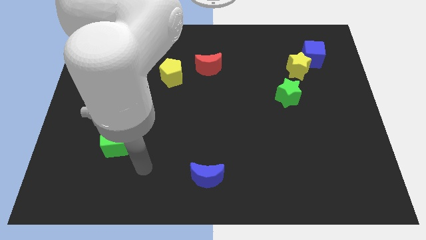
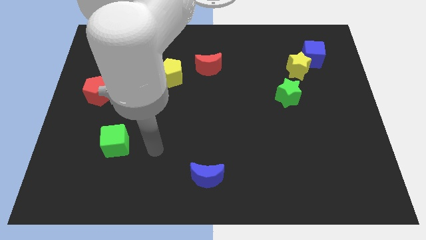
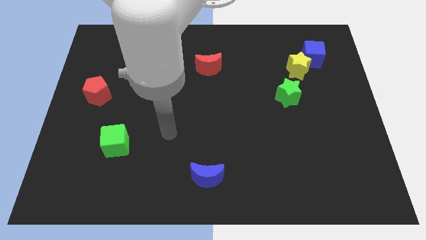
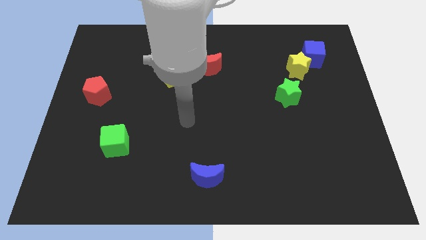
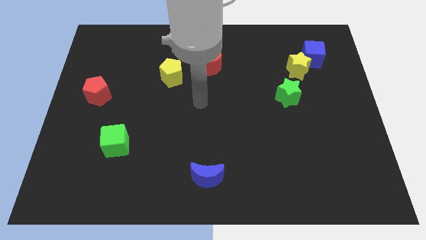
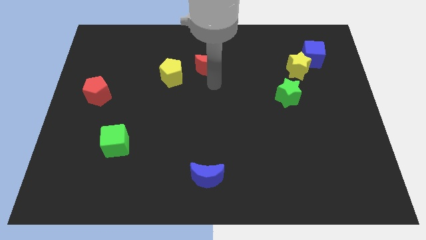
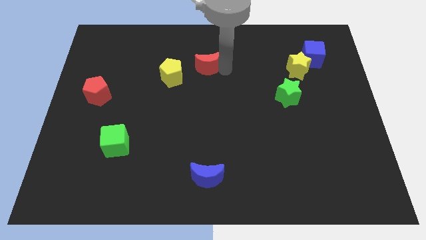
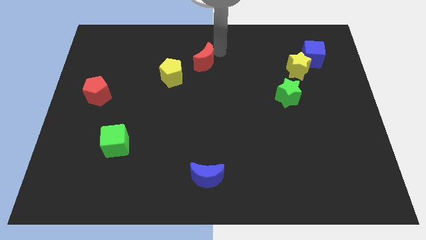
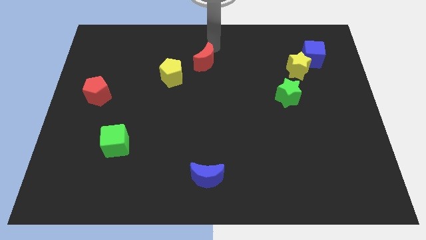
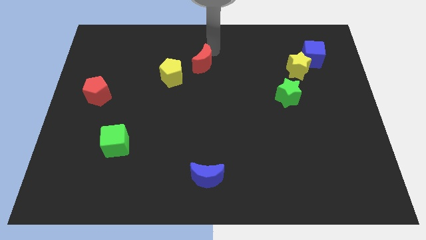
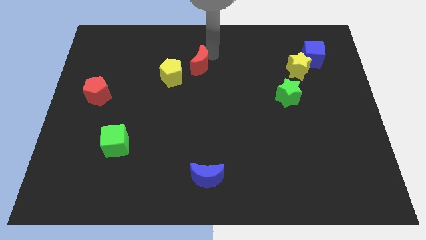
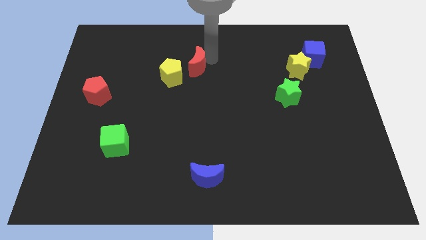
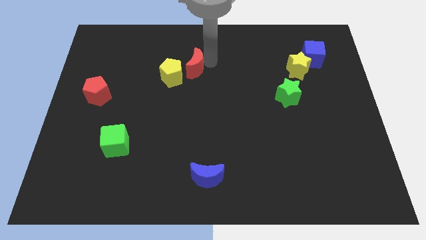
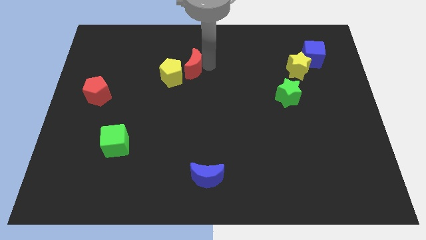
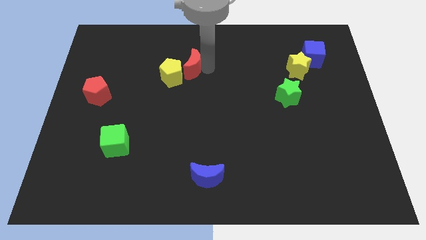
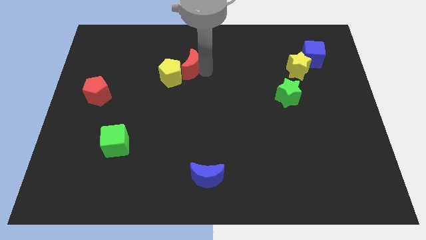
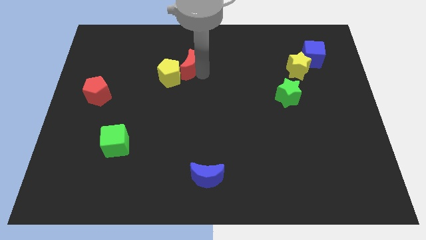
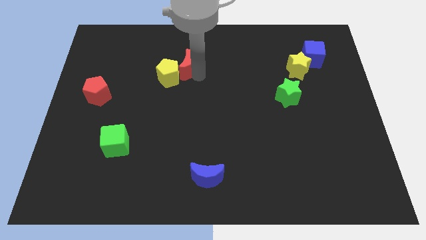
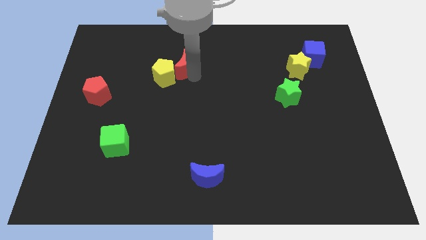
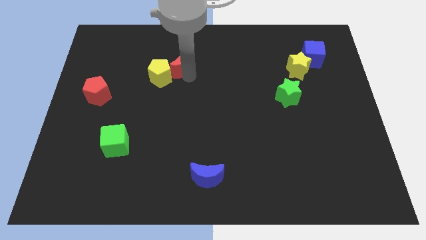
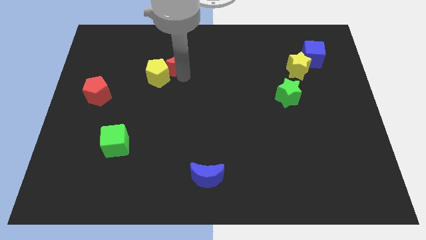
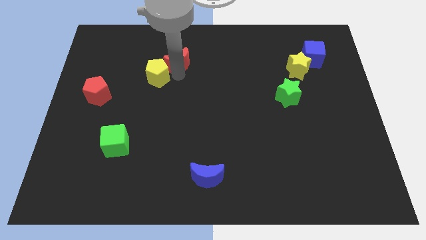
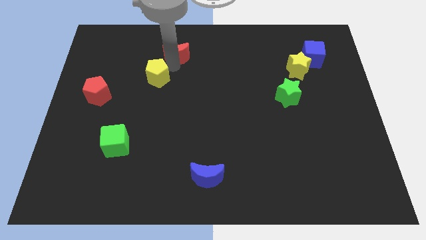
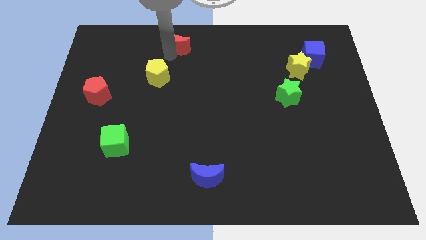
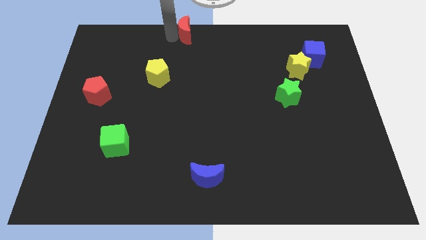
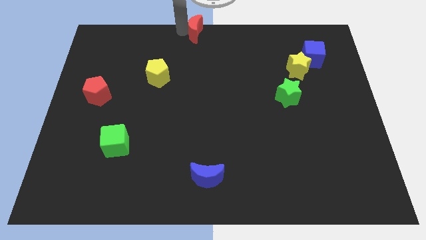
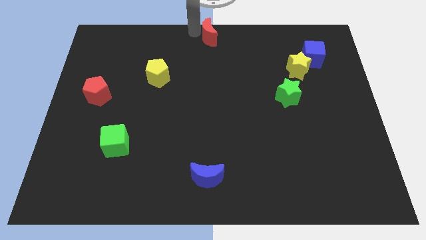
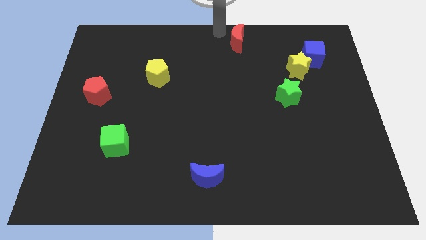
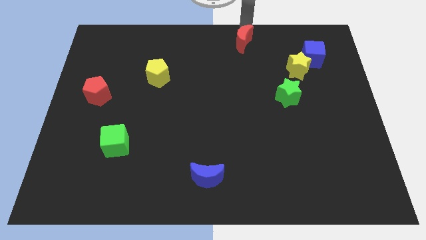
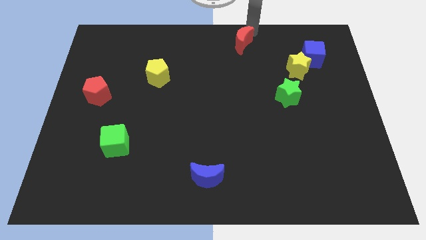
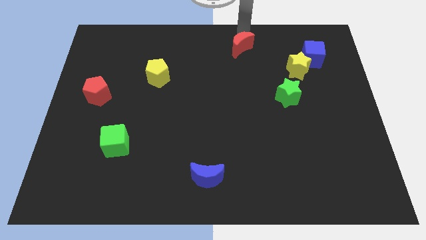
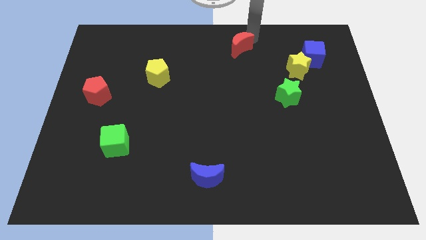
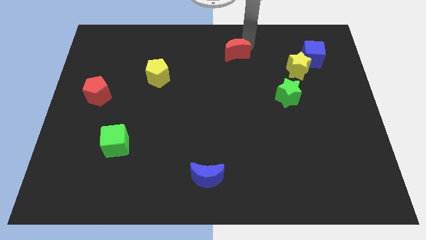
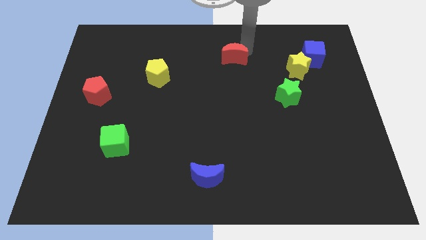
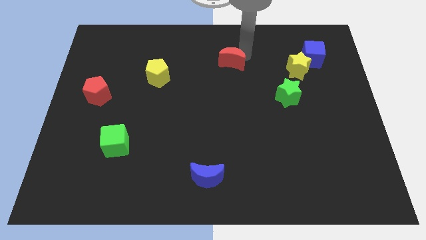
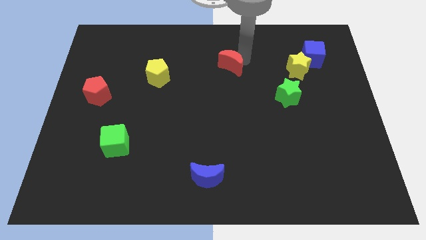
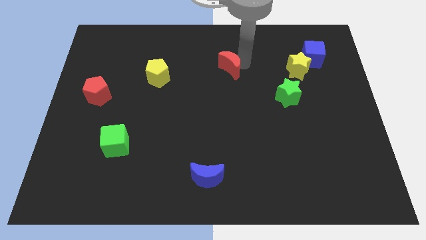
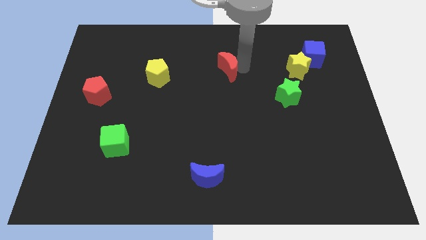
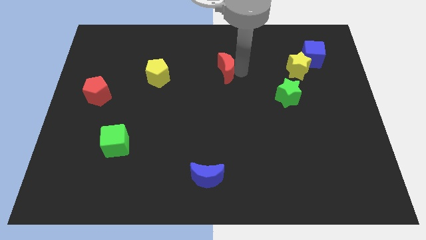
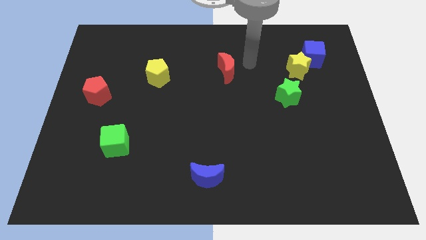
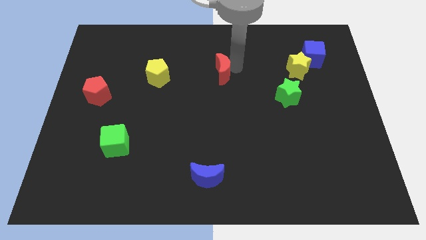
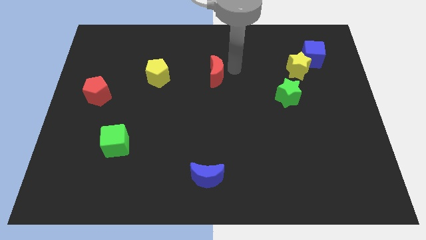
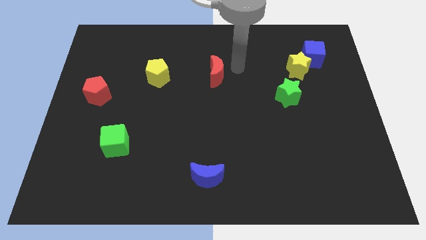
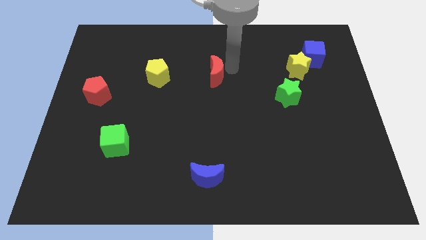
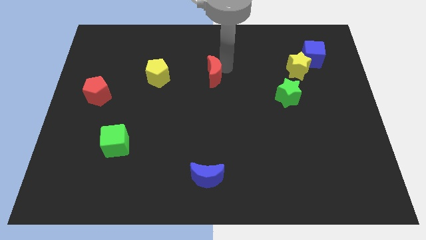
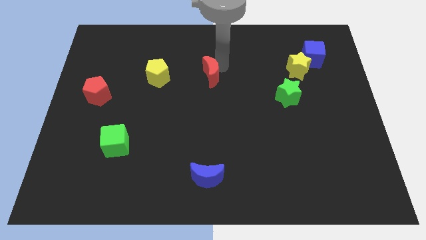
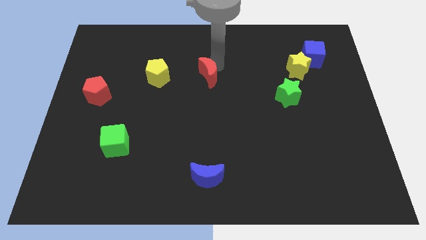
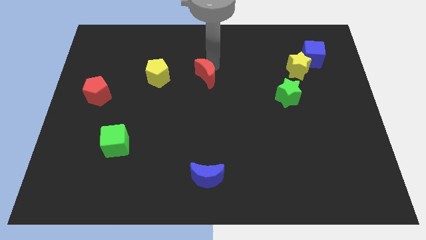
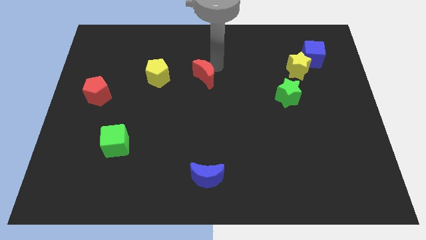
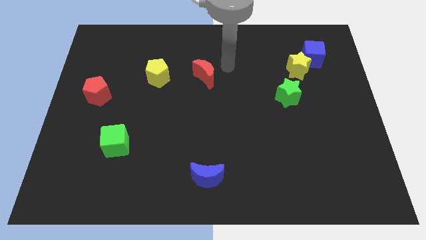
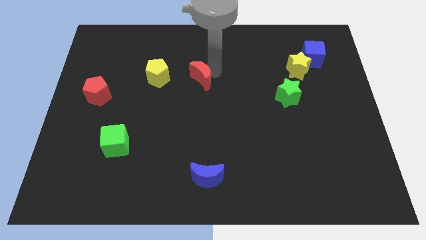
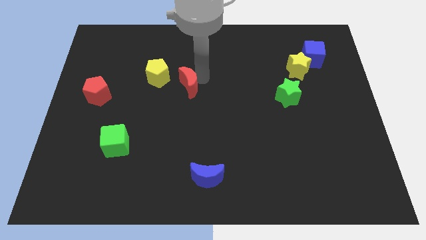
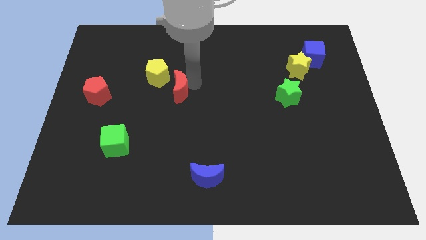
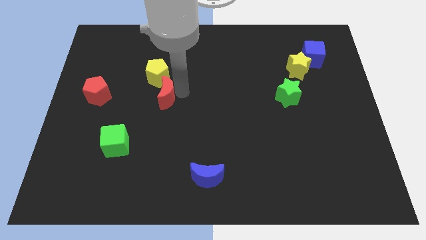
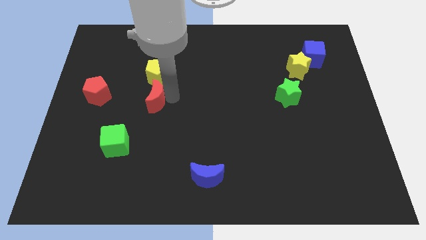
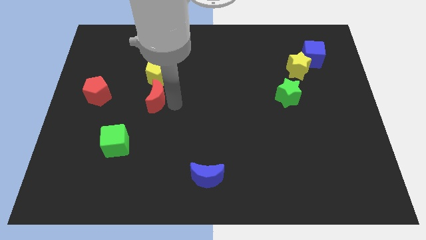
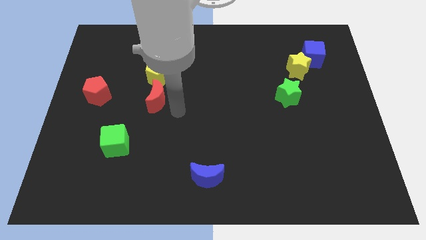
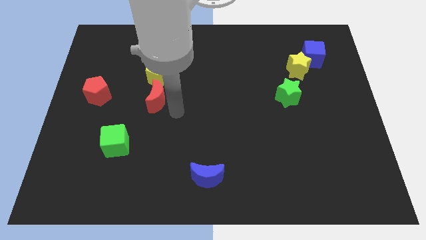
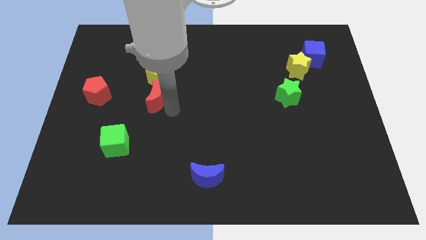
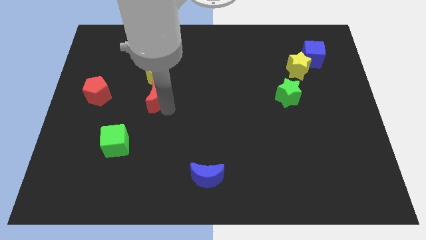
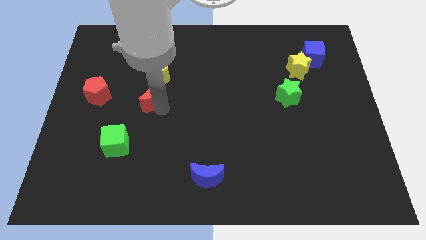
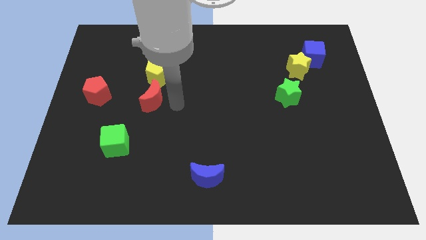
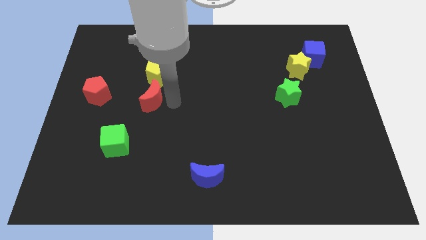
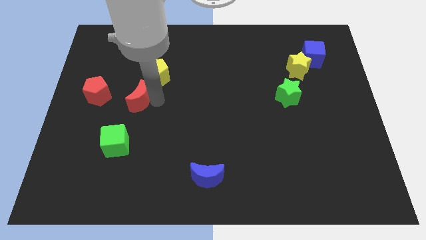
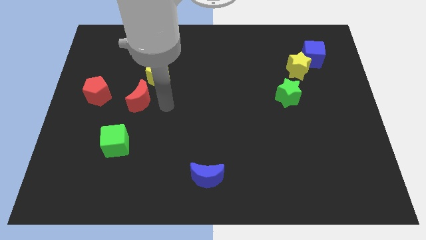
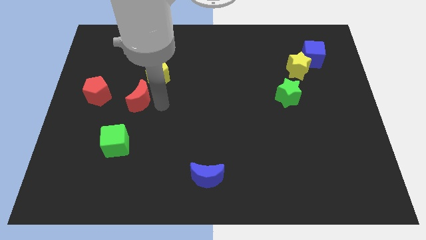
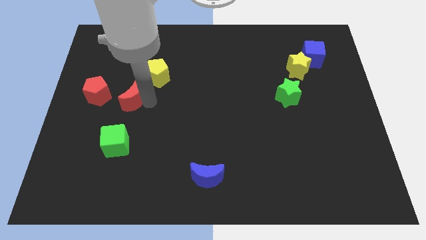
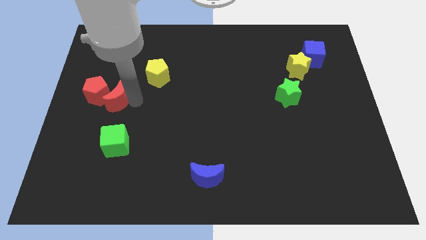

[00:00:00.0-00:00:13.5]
push the red moon to the red pentagon
